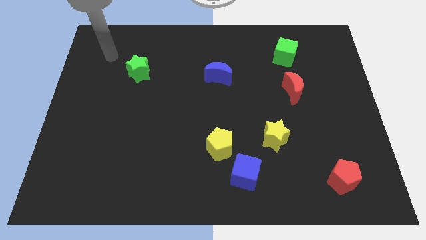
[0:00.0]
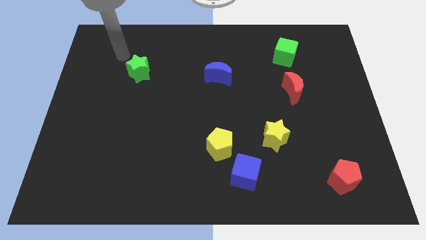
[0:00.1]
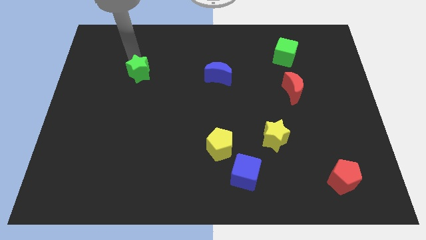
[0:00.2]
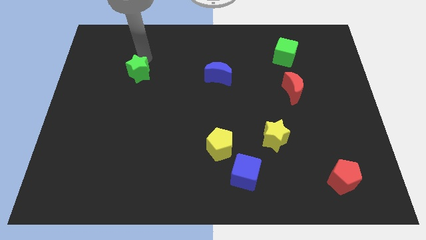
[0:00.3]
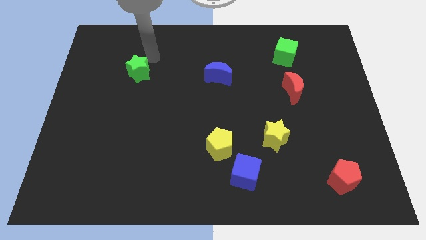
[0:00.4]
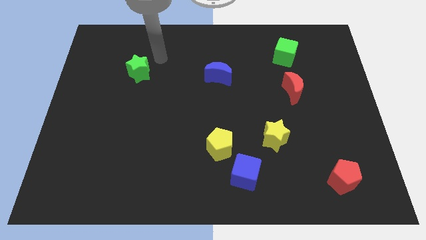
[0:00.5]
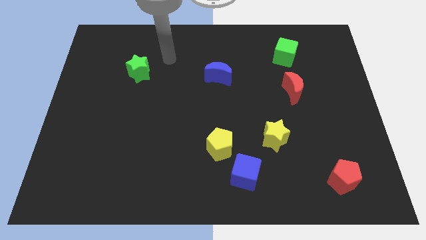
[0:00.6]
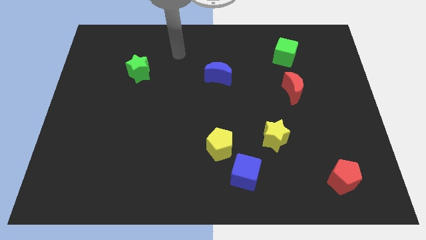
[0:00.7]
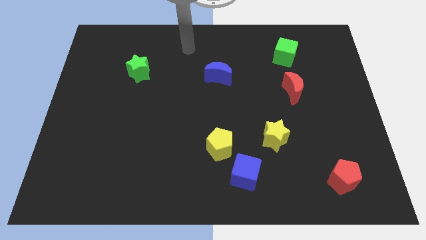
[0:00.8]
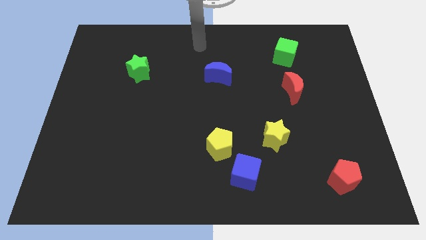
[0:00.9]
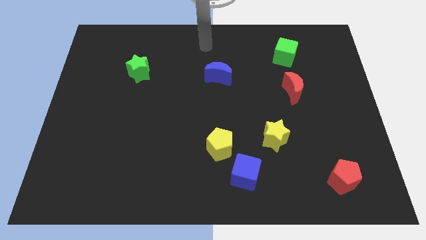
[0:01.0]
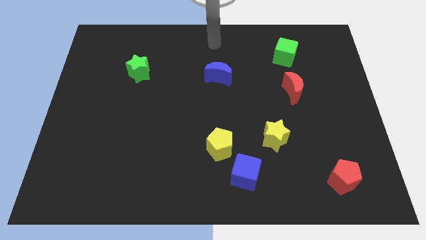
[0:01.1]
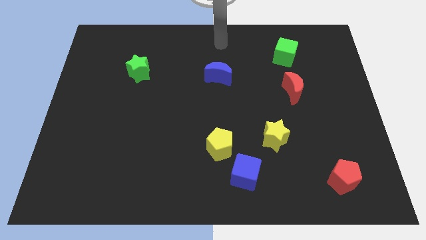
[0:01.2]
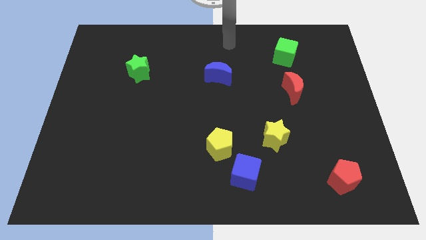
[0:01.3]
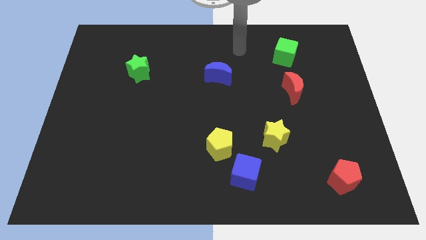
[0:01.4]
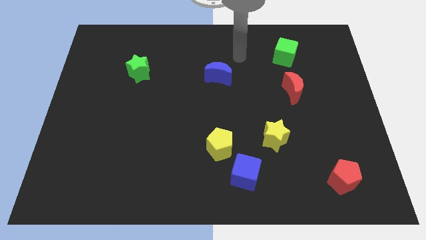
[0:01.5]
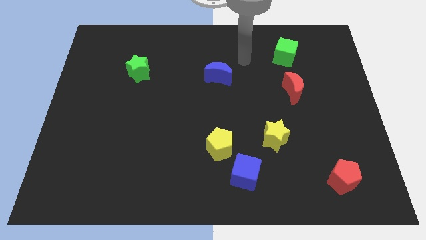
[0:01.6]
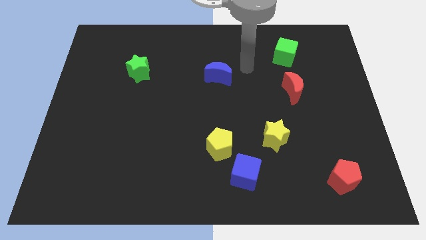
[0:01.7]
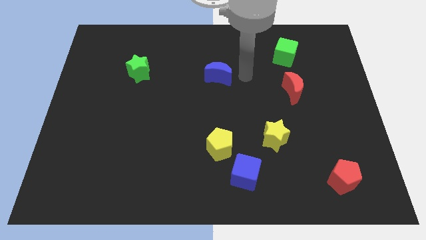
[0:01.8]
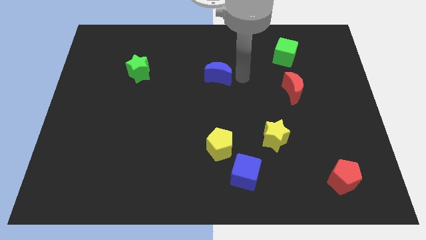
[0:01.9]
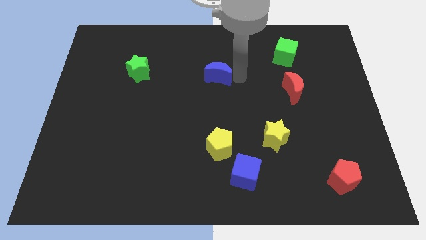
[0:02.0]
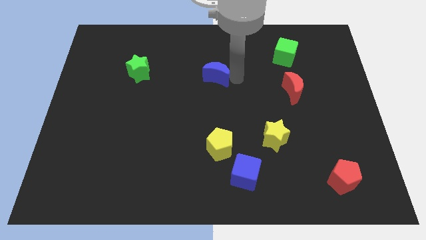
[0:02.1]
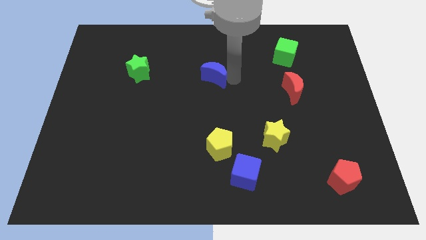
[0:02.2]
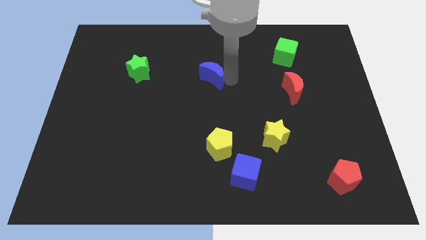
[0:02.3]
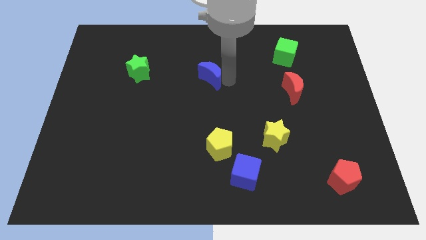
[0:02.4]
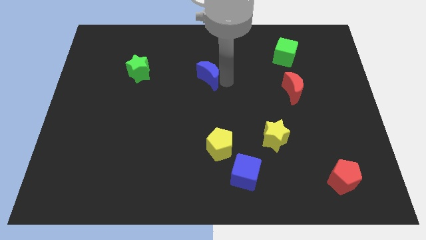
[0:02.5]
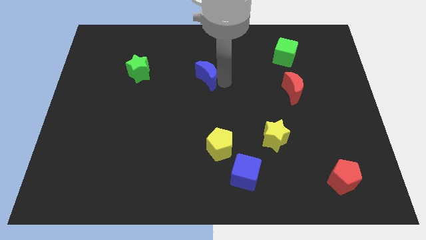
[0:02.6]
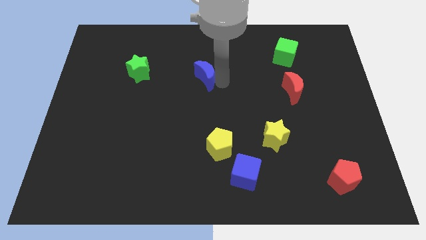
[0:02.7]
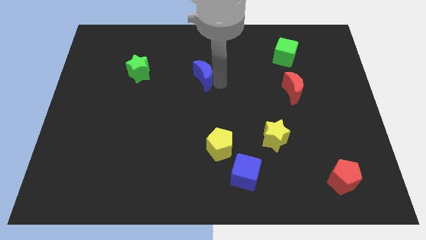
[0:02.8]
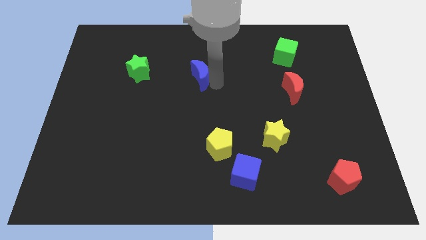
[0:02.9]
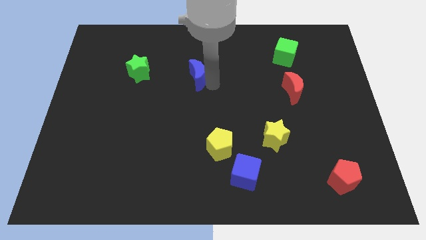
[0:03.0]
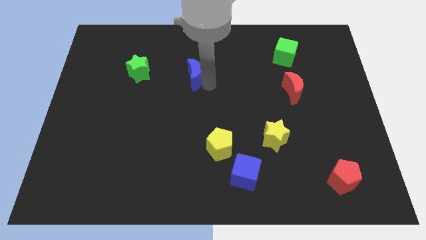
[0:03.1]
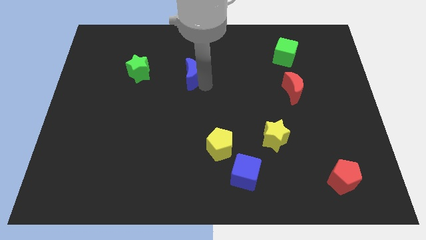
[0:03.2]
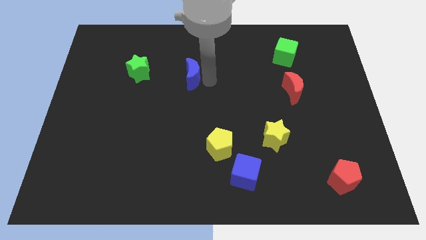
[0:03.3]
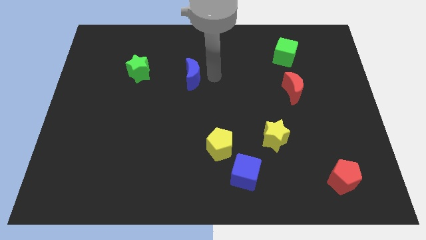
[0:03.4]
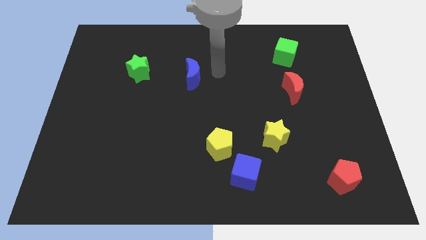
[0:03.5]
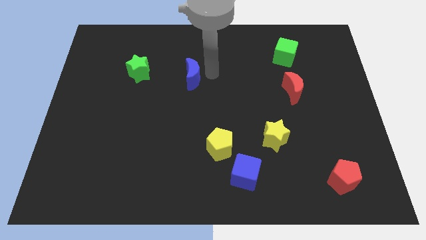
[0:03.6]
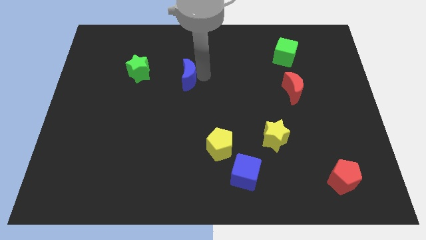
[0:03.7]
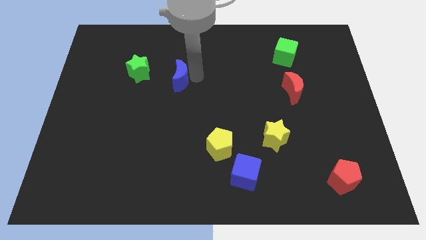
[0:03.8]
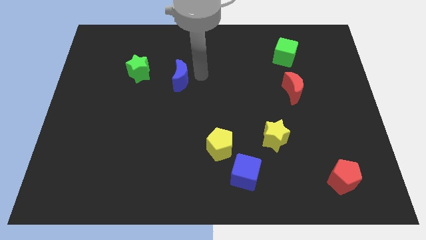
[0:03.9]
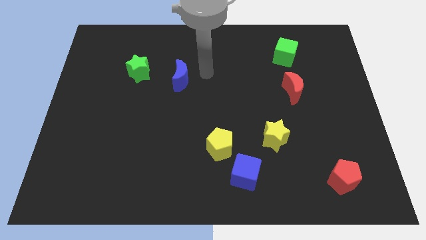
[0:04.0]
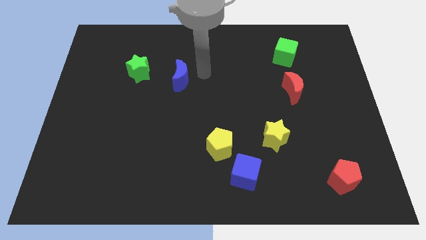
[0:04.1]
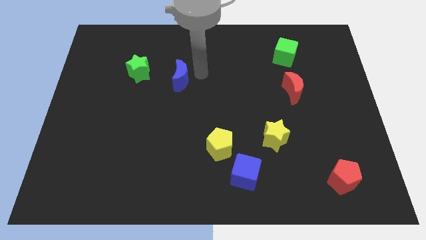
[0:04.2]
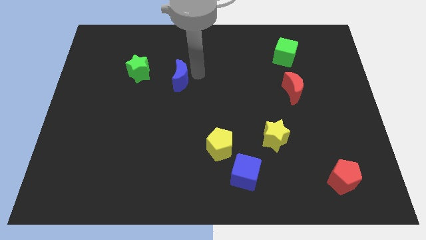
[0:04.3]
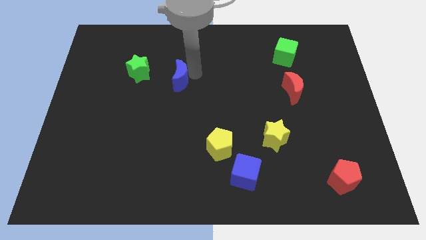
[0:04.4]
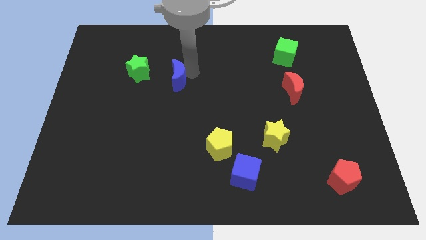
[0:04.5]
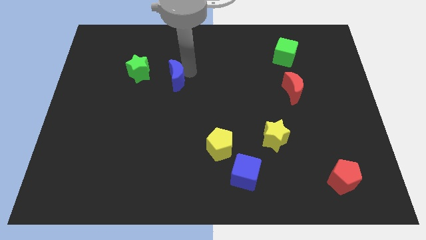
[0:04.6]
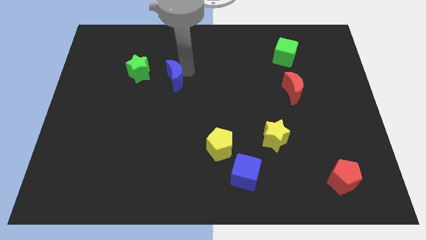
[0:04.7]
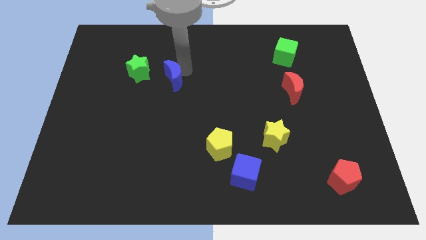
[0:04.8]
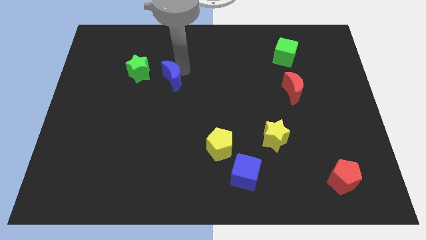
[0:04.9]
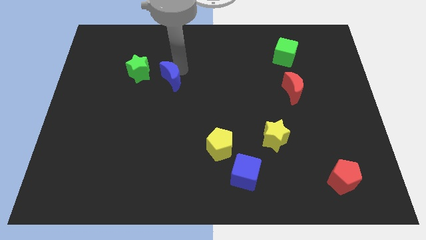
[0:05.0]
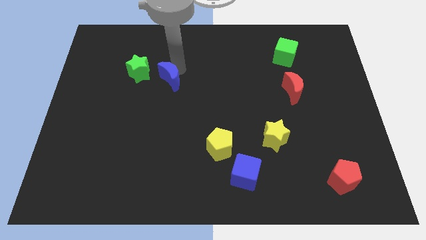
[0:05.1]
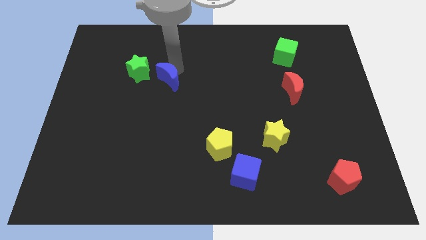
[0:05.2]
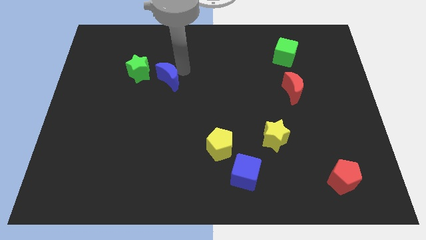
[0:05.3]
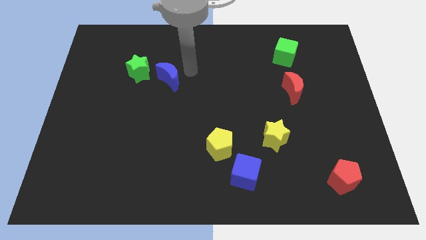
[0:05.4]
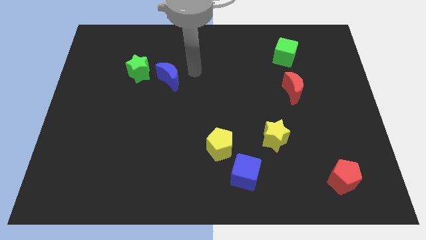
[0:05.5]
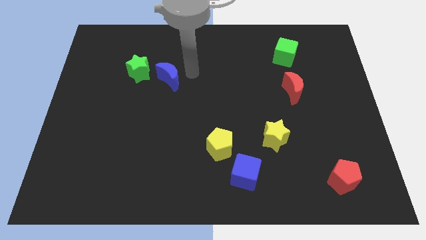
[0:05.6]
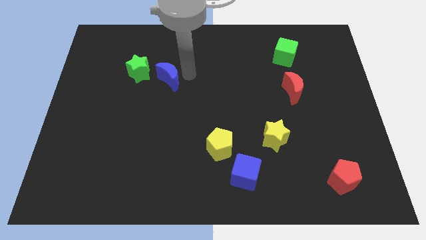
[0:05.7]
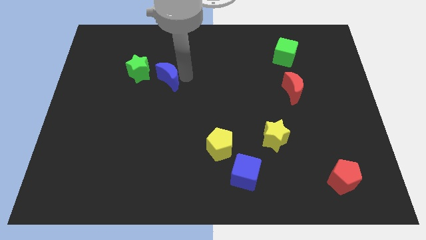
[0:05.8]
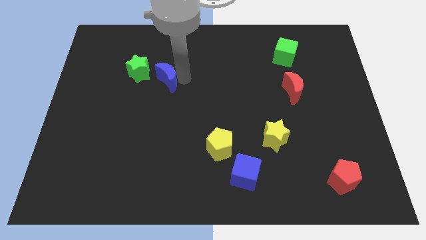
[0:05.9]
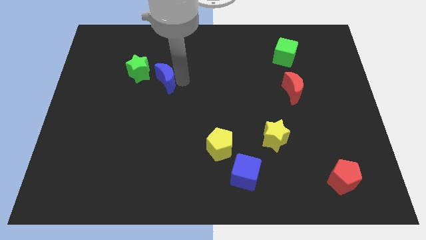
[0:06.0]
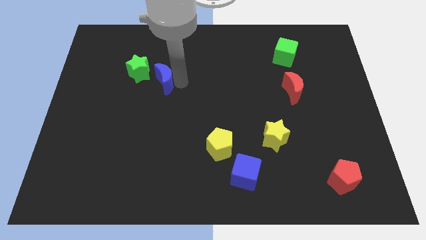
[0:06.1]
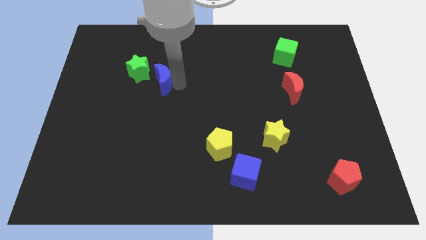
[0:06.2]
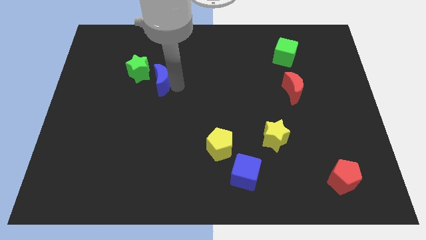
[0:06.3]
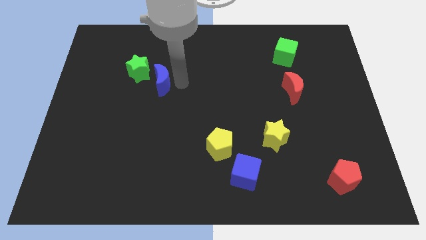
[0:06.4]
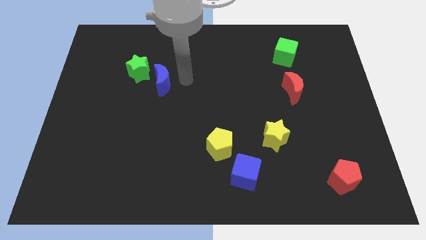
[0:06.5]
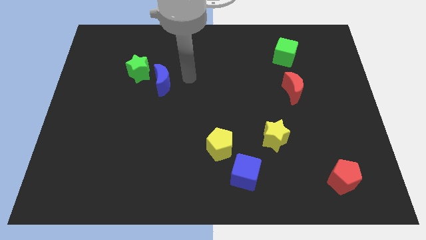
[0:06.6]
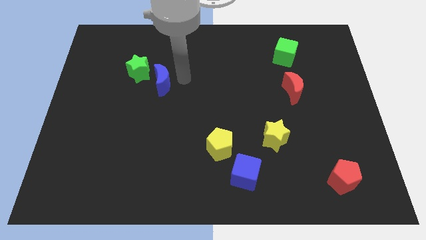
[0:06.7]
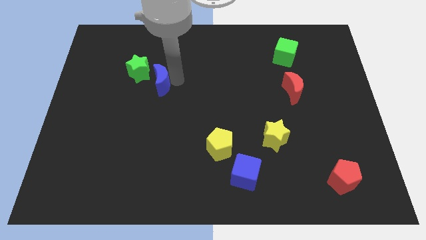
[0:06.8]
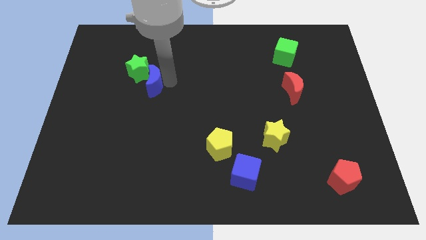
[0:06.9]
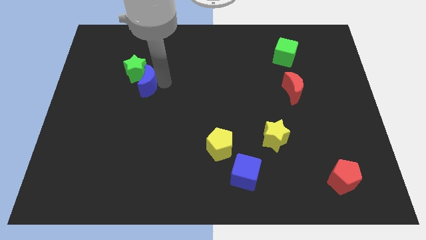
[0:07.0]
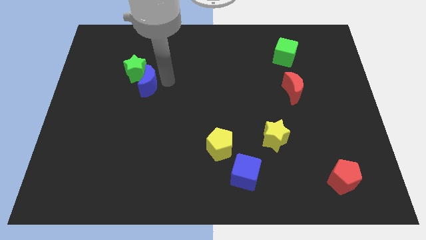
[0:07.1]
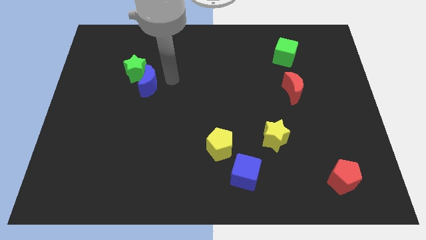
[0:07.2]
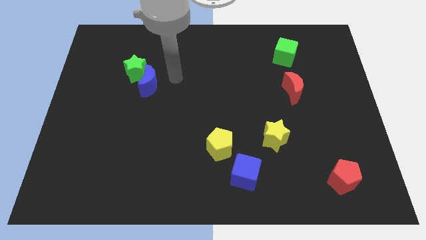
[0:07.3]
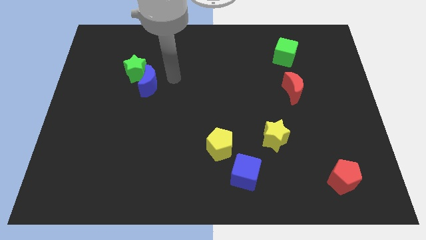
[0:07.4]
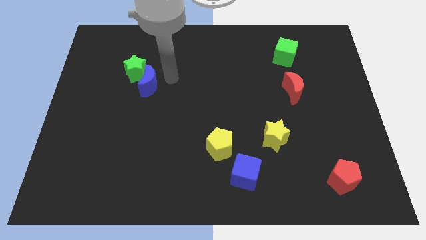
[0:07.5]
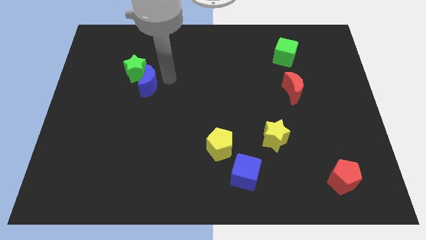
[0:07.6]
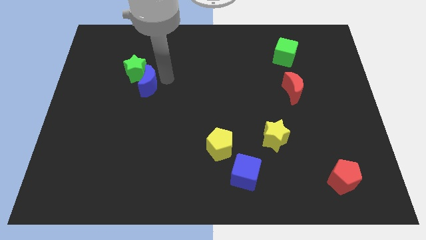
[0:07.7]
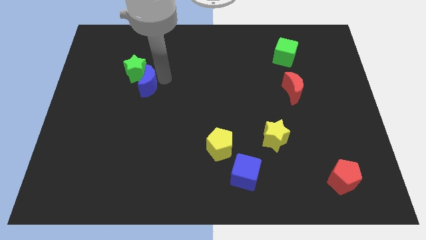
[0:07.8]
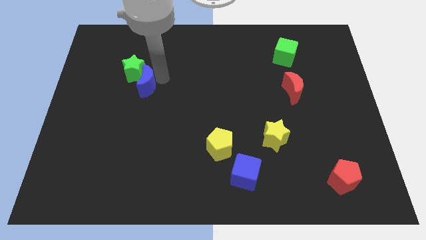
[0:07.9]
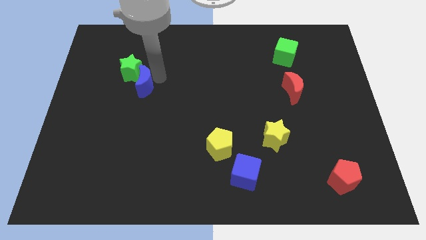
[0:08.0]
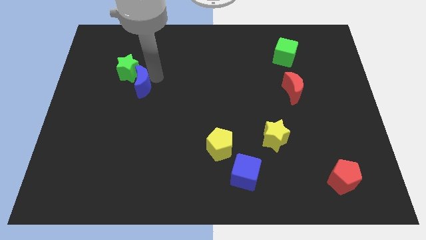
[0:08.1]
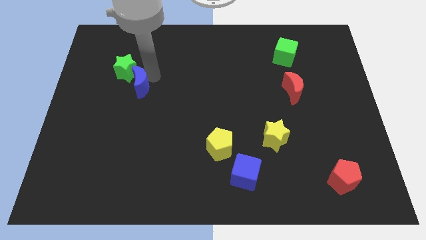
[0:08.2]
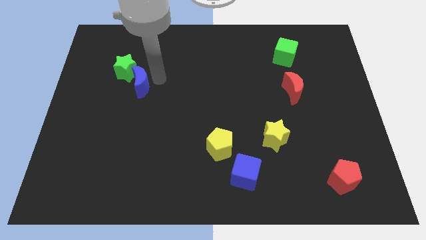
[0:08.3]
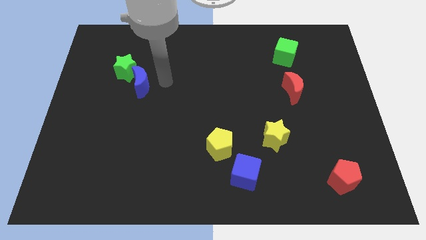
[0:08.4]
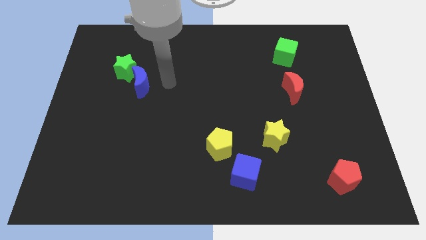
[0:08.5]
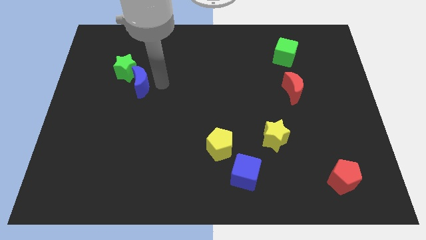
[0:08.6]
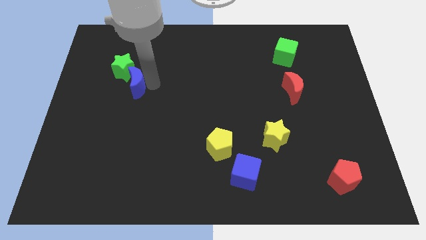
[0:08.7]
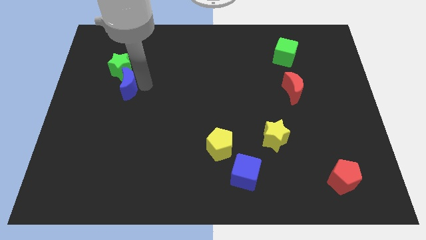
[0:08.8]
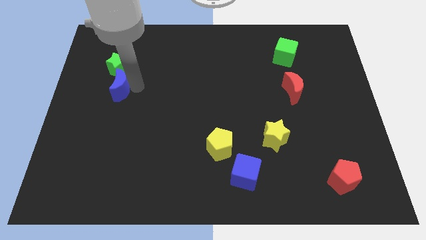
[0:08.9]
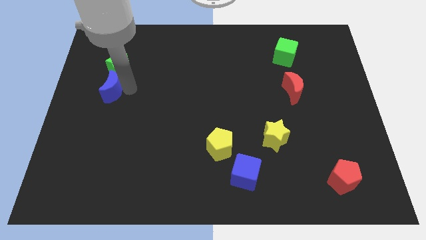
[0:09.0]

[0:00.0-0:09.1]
put the blue moon diagonally down and to the left of the green star
